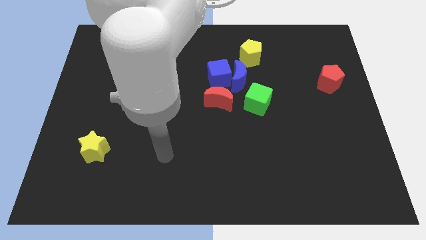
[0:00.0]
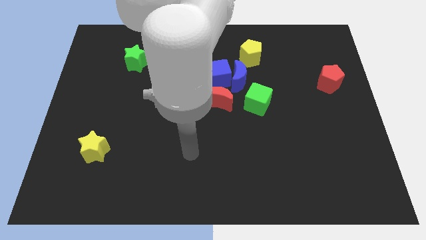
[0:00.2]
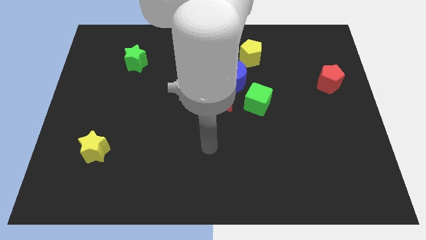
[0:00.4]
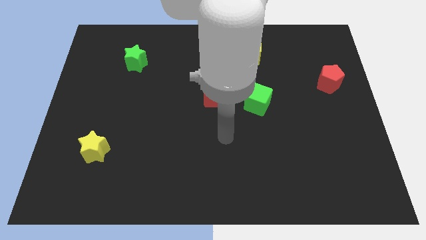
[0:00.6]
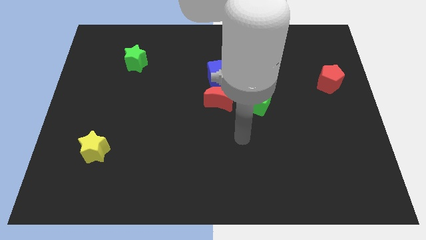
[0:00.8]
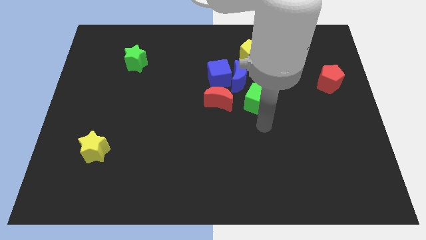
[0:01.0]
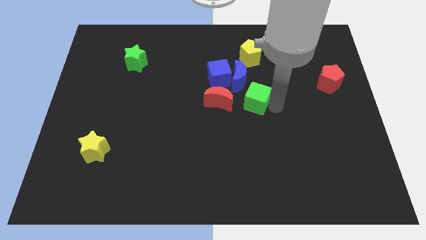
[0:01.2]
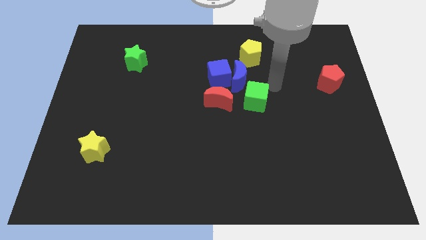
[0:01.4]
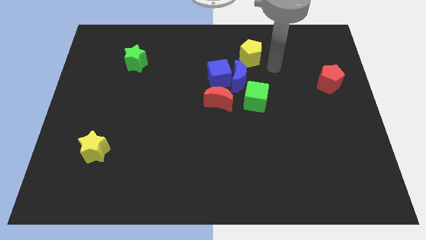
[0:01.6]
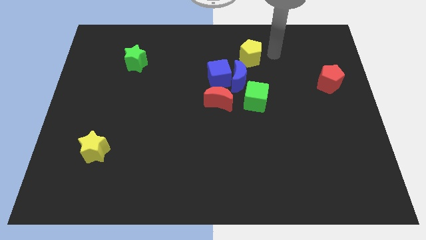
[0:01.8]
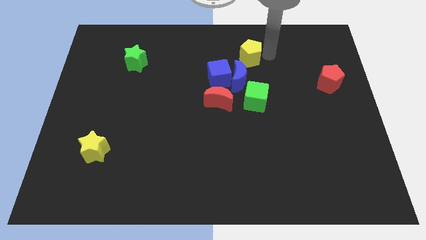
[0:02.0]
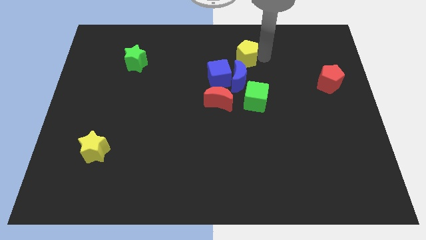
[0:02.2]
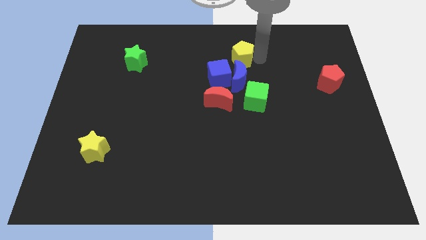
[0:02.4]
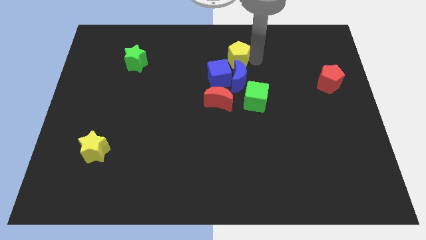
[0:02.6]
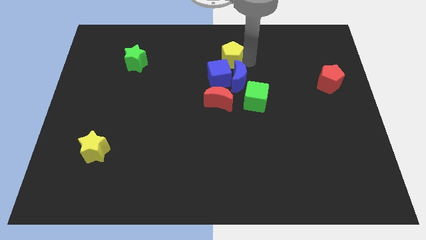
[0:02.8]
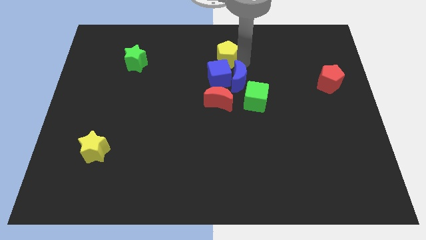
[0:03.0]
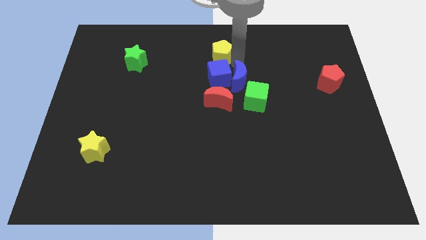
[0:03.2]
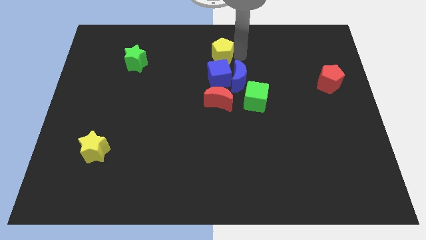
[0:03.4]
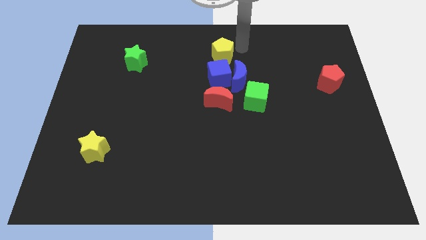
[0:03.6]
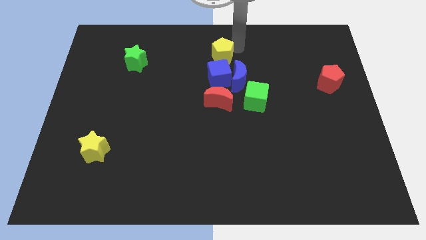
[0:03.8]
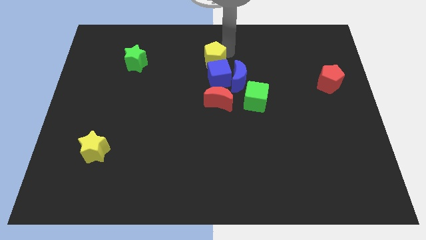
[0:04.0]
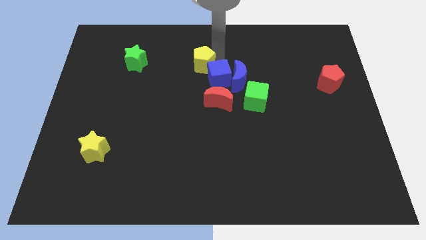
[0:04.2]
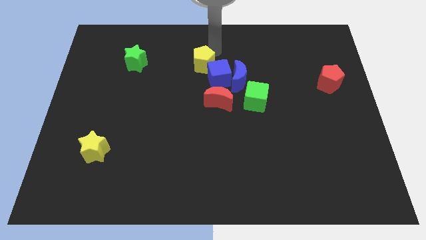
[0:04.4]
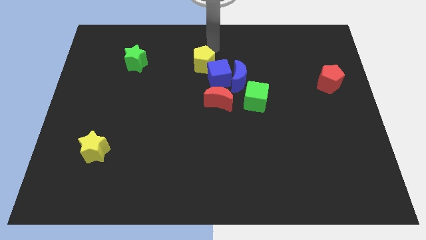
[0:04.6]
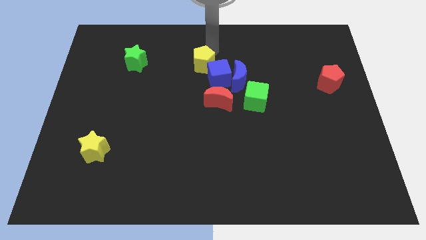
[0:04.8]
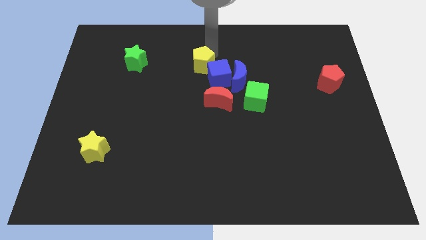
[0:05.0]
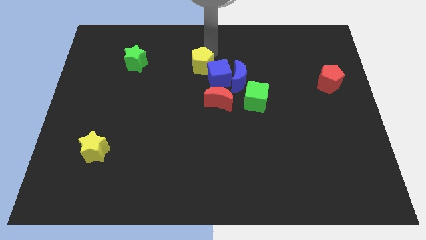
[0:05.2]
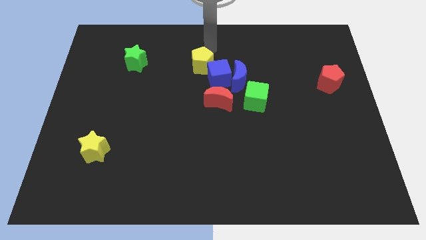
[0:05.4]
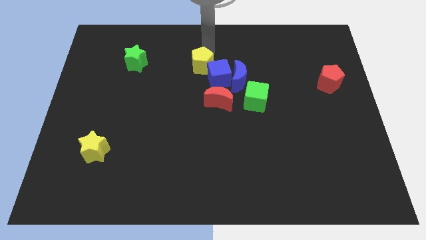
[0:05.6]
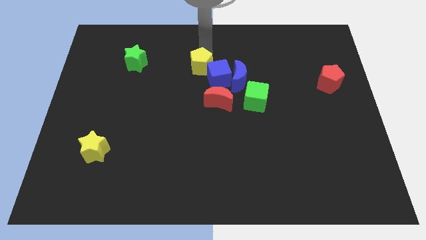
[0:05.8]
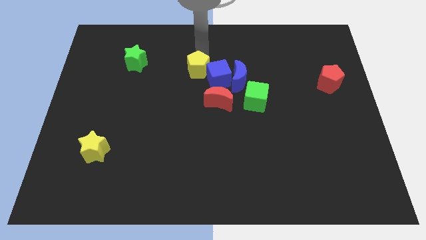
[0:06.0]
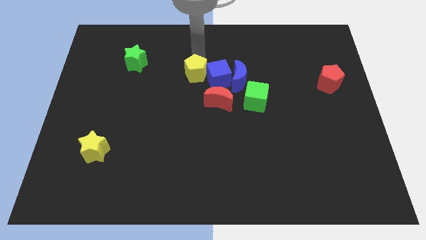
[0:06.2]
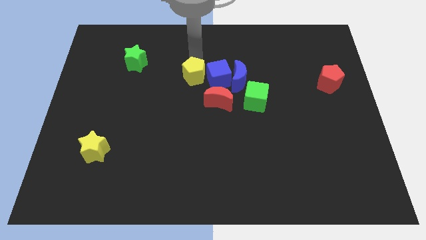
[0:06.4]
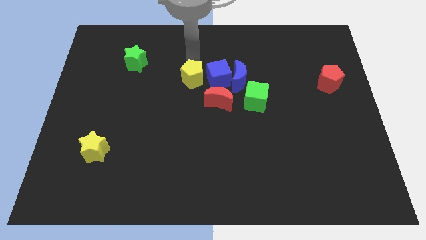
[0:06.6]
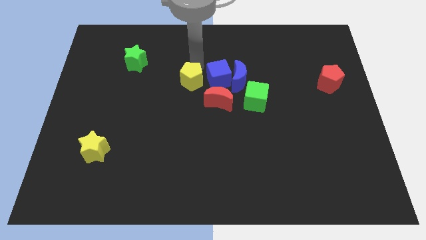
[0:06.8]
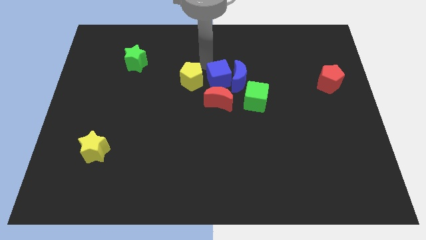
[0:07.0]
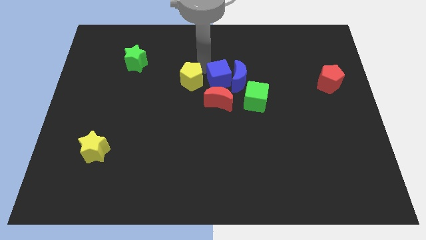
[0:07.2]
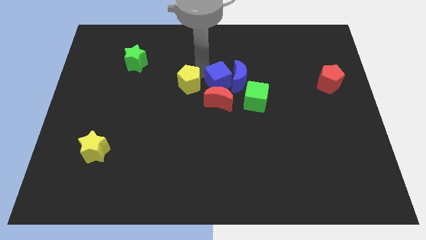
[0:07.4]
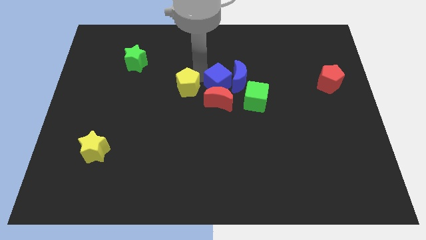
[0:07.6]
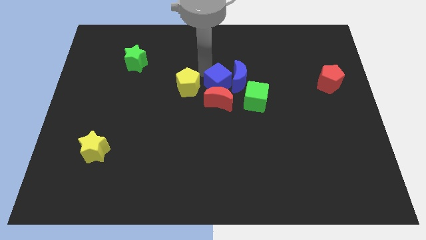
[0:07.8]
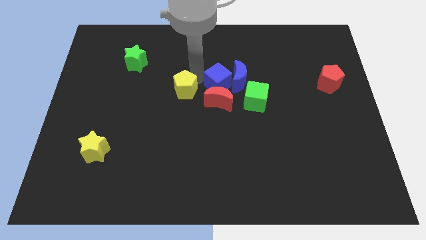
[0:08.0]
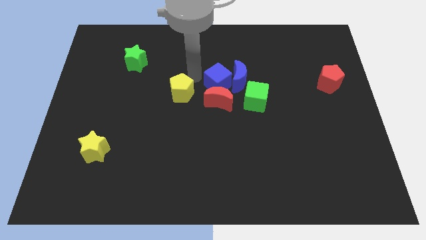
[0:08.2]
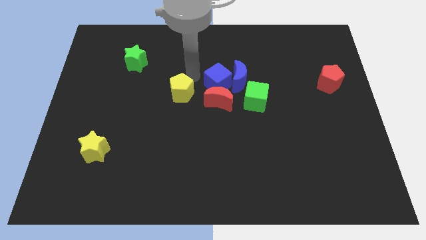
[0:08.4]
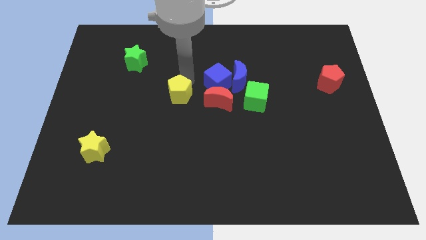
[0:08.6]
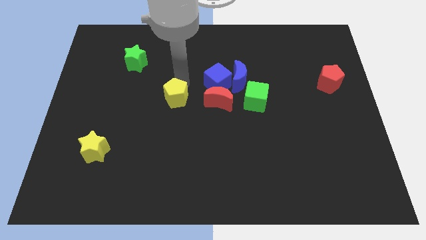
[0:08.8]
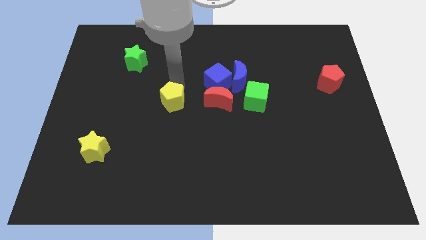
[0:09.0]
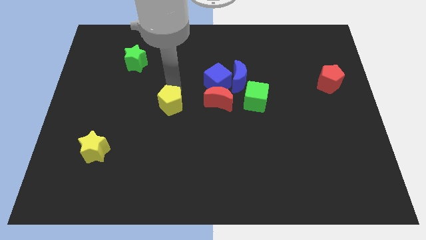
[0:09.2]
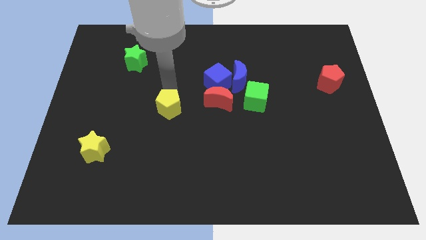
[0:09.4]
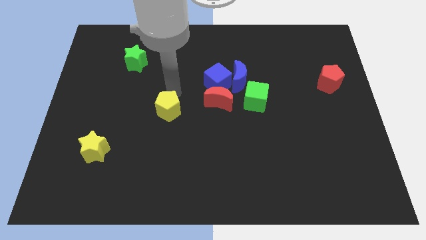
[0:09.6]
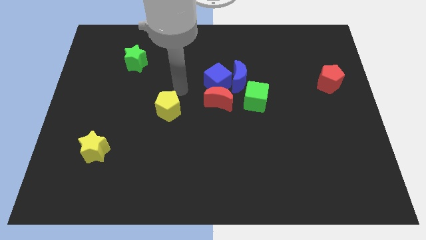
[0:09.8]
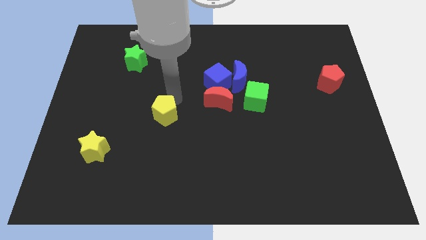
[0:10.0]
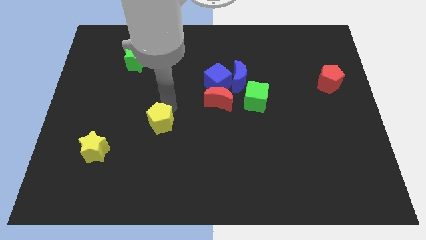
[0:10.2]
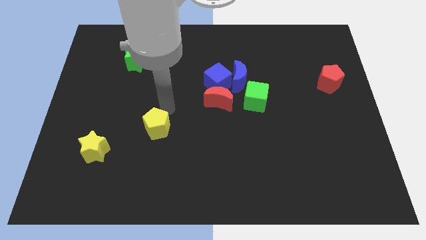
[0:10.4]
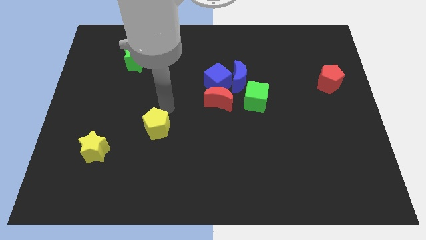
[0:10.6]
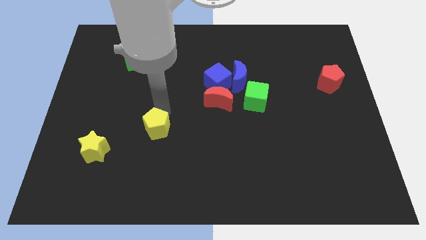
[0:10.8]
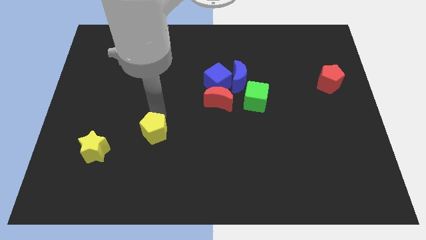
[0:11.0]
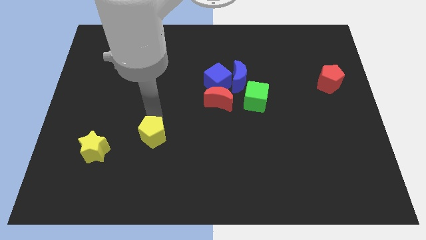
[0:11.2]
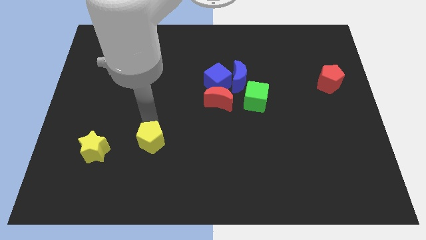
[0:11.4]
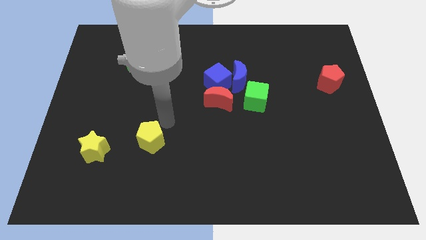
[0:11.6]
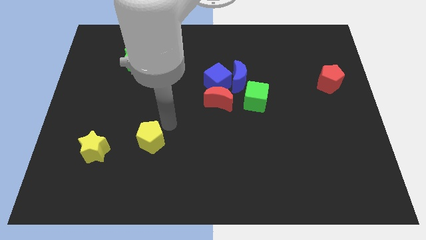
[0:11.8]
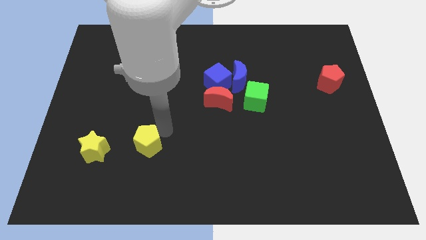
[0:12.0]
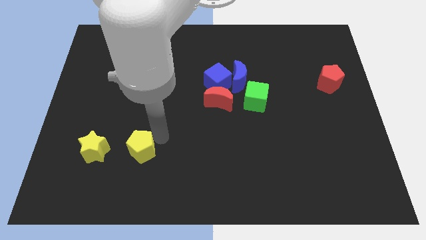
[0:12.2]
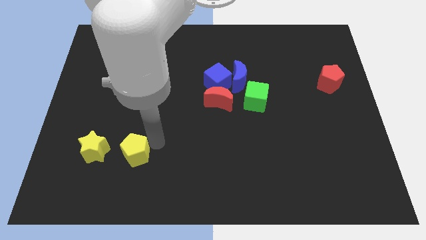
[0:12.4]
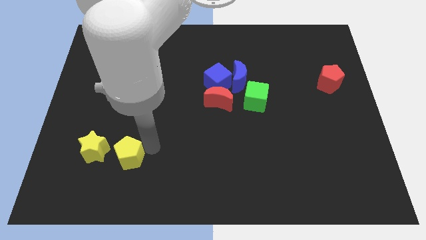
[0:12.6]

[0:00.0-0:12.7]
push the yellow pentagon diagonally down and to the right of the yellow star

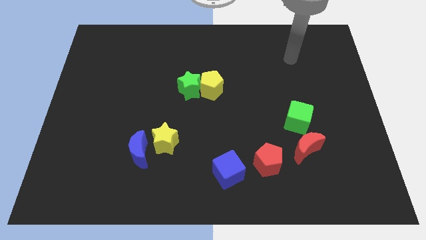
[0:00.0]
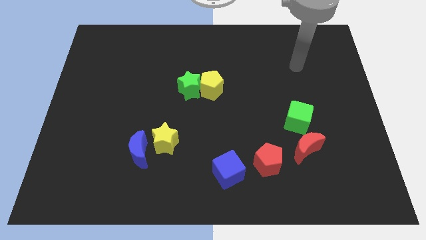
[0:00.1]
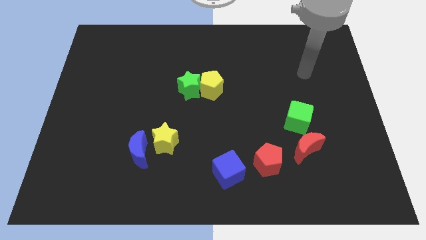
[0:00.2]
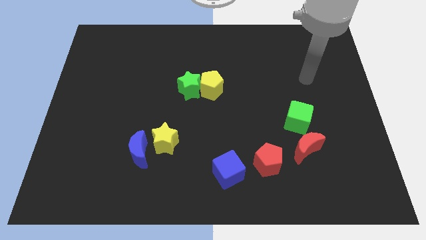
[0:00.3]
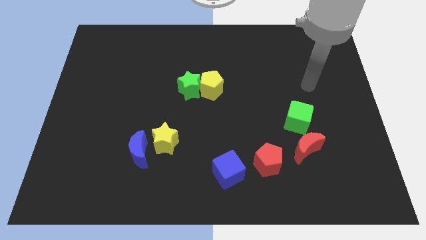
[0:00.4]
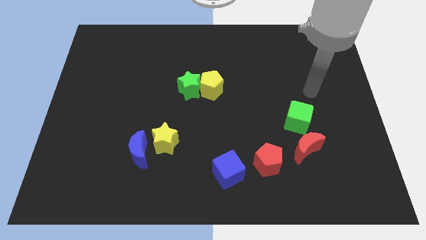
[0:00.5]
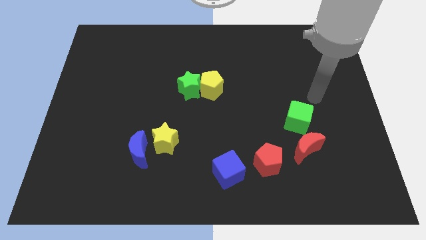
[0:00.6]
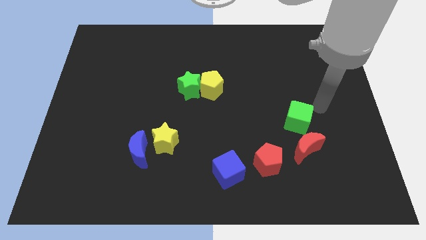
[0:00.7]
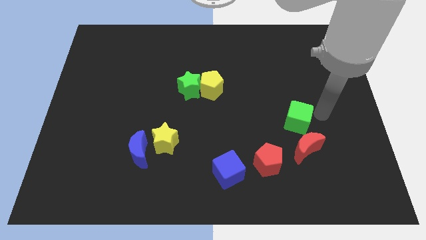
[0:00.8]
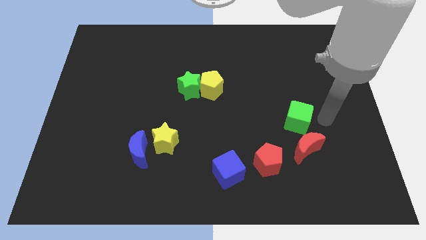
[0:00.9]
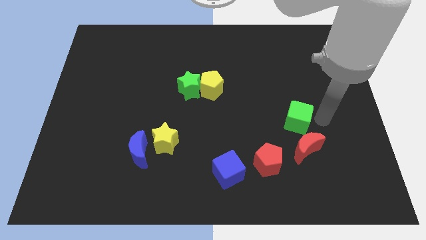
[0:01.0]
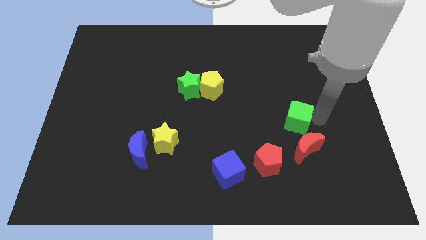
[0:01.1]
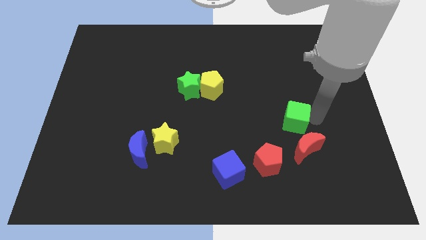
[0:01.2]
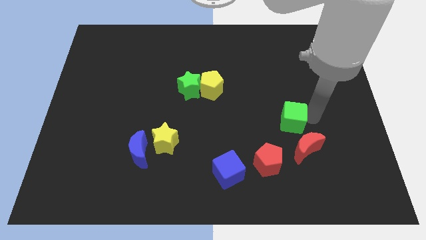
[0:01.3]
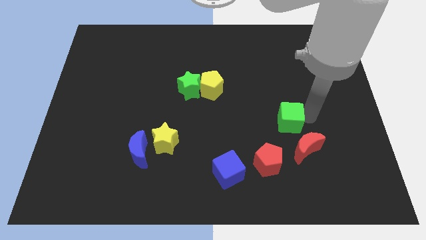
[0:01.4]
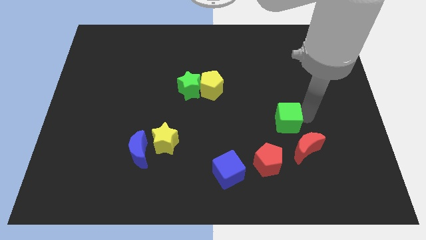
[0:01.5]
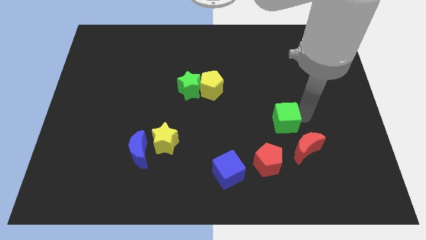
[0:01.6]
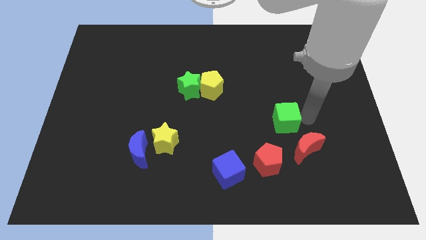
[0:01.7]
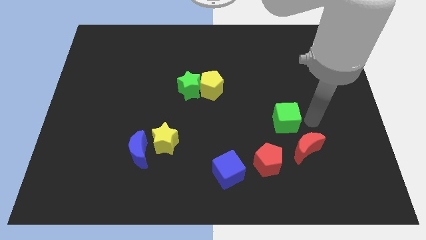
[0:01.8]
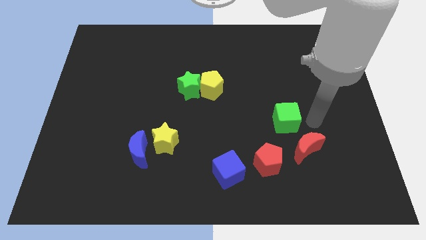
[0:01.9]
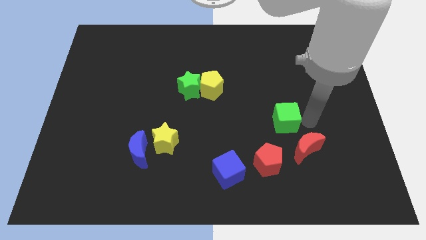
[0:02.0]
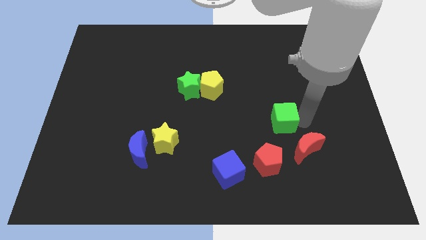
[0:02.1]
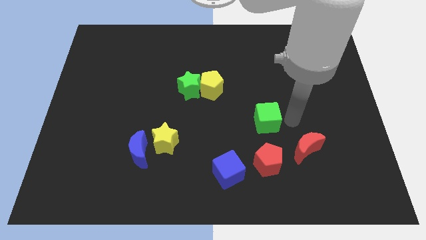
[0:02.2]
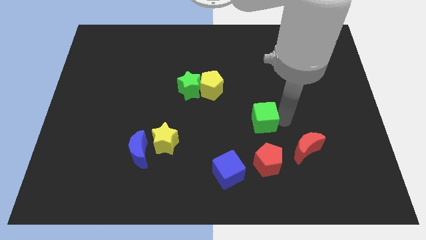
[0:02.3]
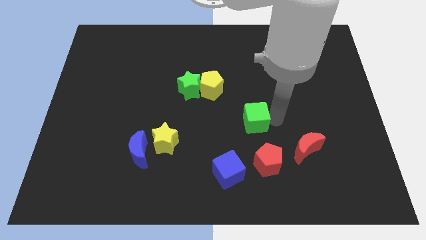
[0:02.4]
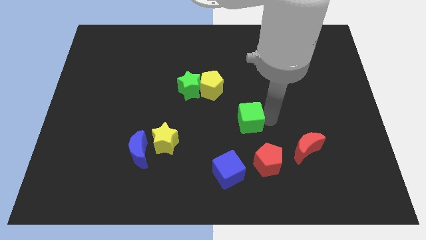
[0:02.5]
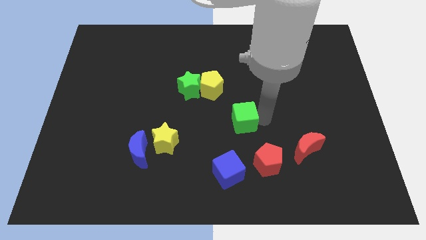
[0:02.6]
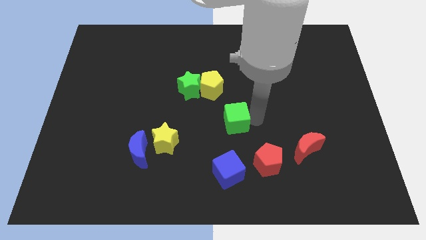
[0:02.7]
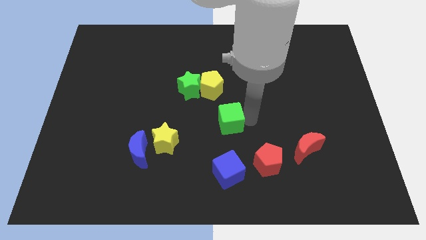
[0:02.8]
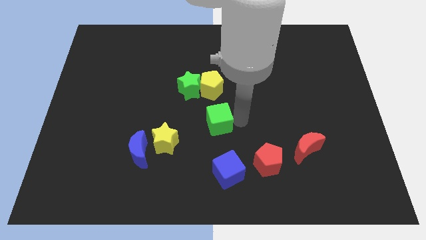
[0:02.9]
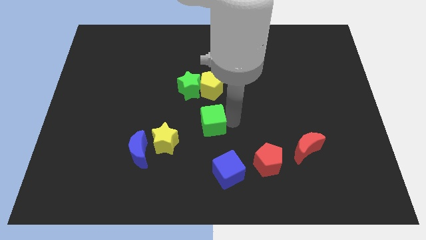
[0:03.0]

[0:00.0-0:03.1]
slide the green cube to the top right side of the yellow star
